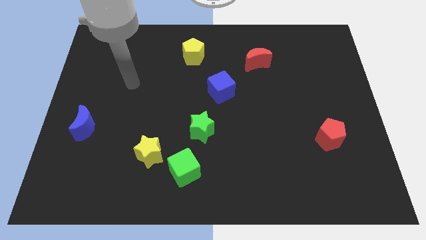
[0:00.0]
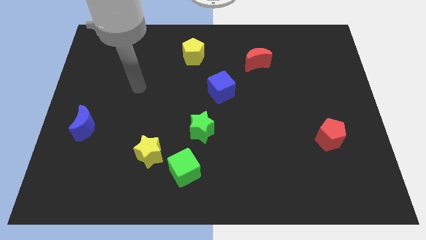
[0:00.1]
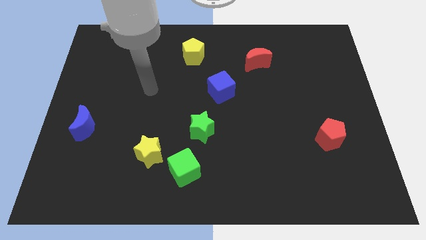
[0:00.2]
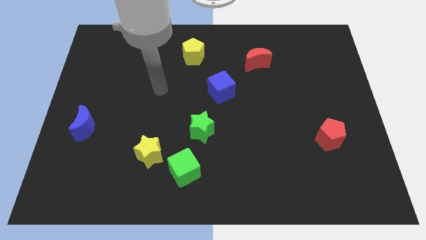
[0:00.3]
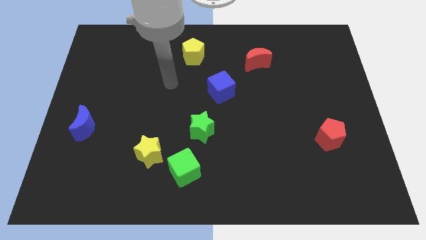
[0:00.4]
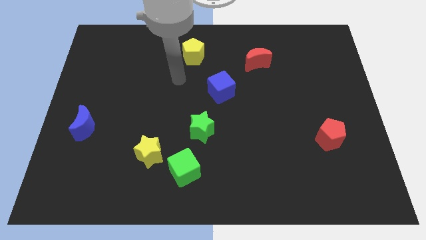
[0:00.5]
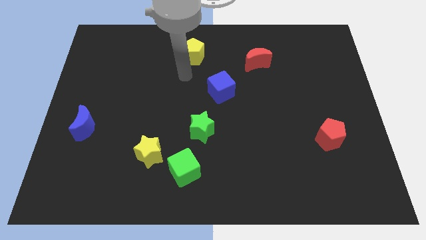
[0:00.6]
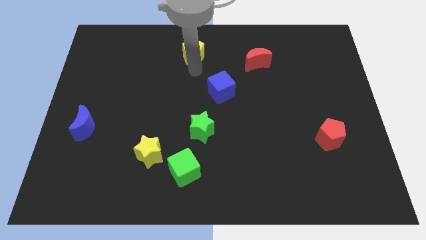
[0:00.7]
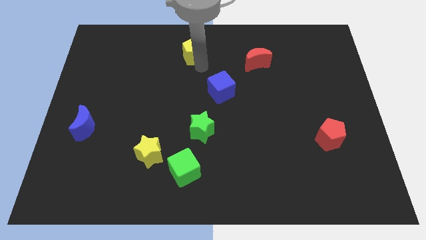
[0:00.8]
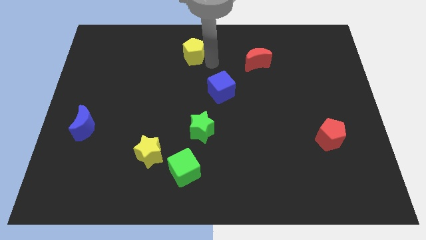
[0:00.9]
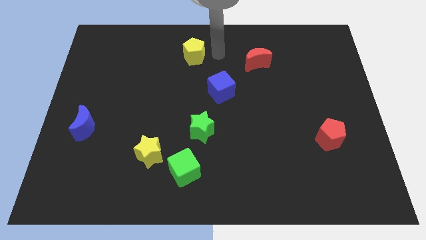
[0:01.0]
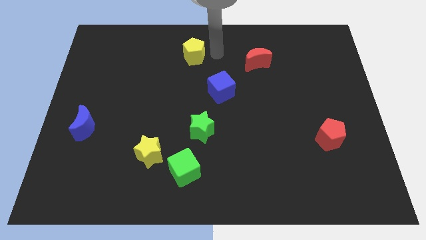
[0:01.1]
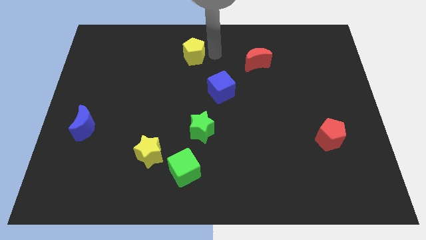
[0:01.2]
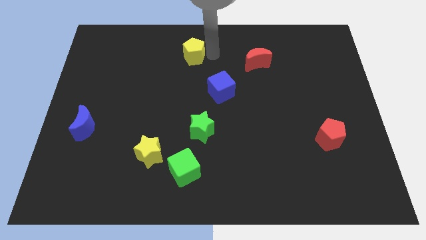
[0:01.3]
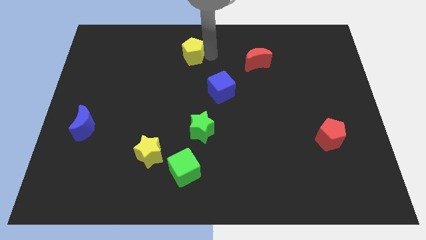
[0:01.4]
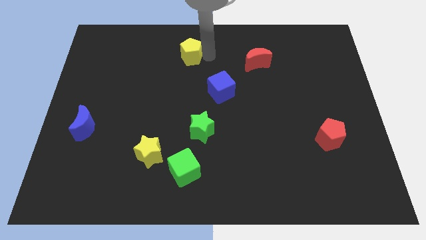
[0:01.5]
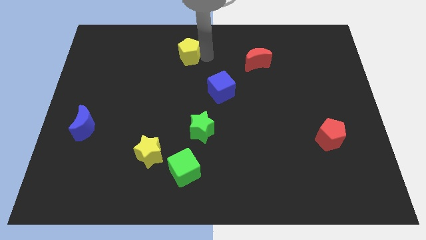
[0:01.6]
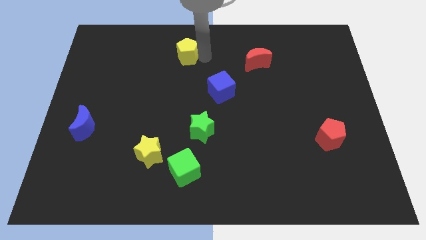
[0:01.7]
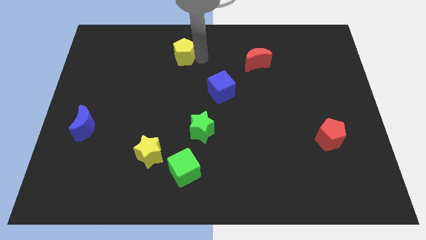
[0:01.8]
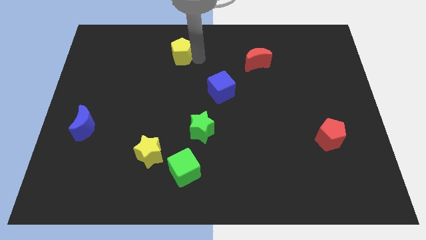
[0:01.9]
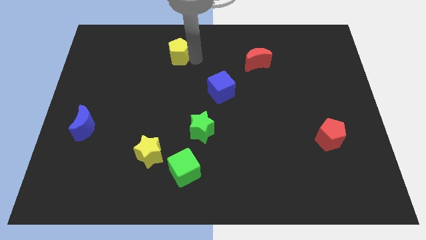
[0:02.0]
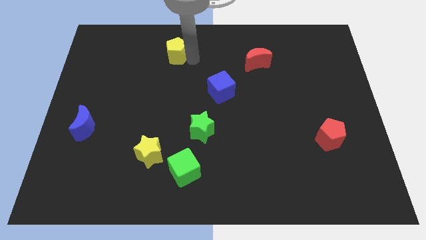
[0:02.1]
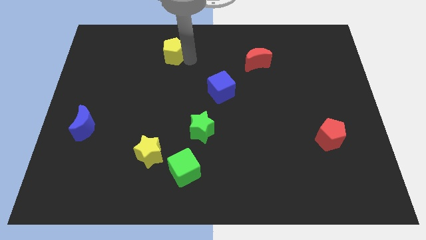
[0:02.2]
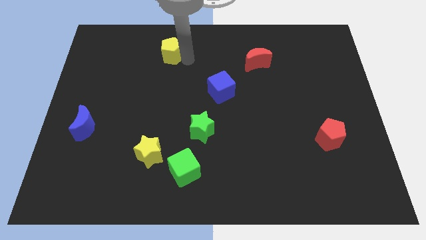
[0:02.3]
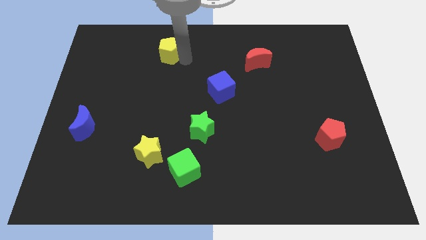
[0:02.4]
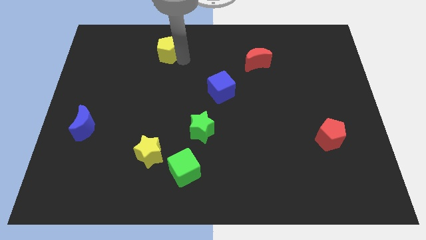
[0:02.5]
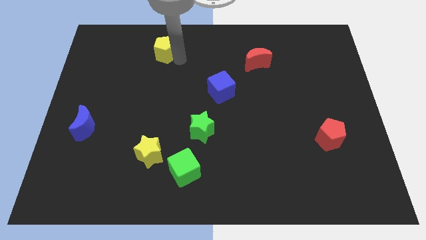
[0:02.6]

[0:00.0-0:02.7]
move the yellow pentagon a little to the left

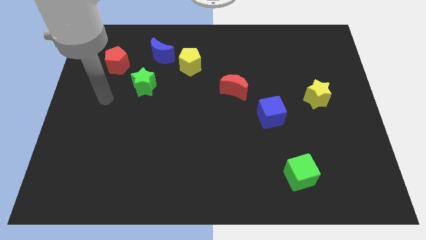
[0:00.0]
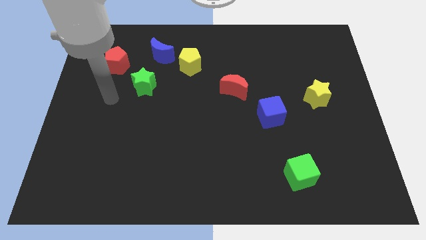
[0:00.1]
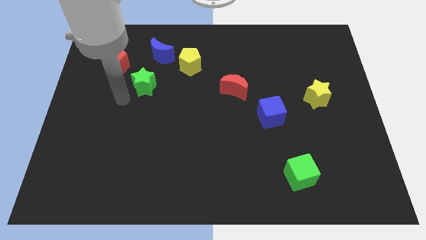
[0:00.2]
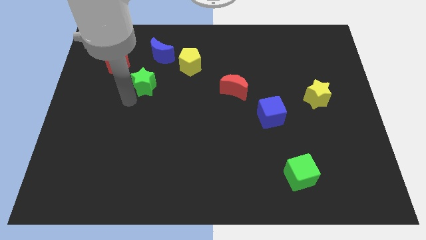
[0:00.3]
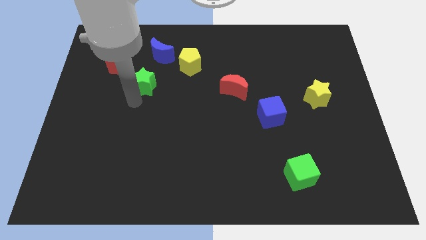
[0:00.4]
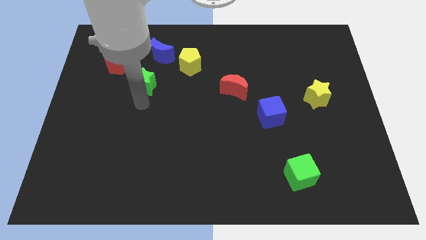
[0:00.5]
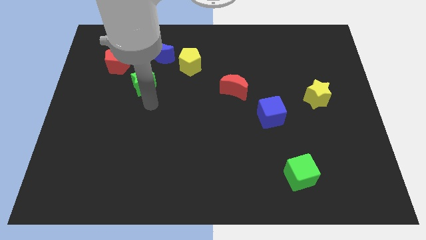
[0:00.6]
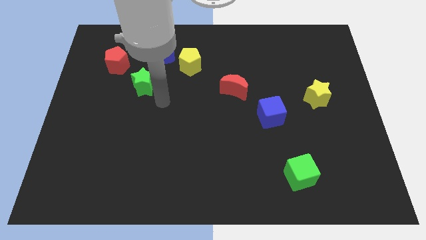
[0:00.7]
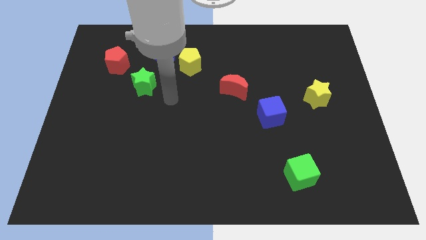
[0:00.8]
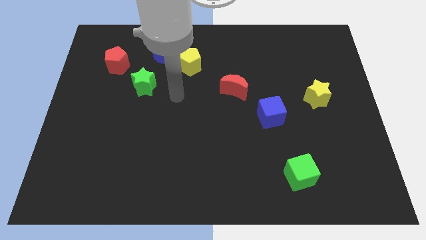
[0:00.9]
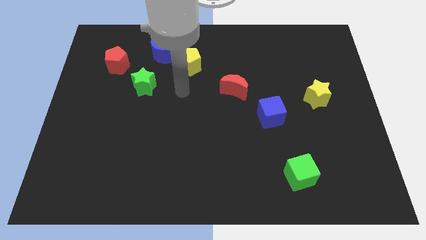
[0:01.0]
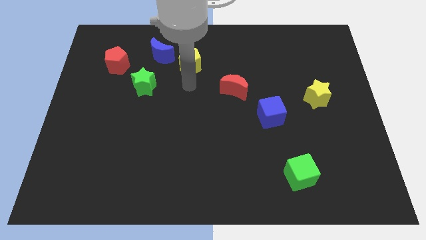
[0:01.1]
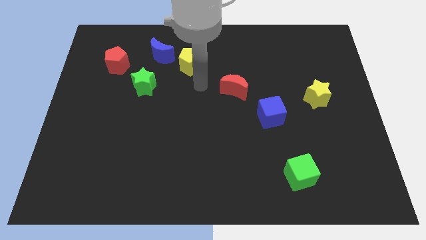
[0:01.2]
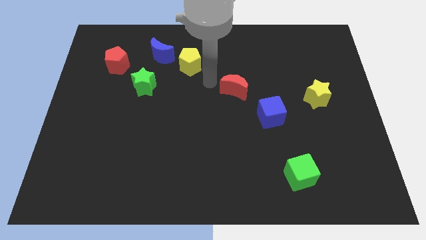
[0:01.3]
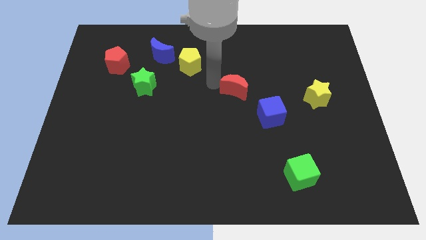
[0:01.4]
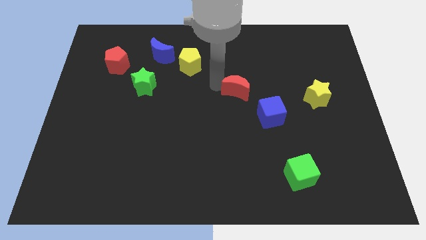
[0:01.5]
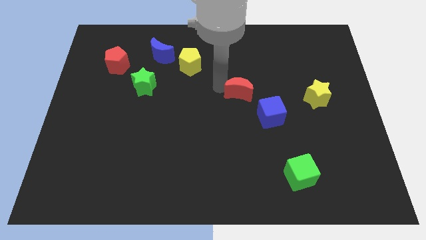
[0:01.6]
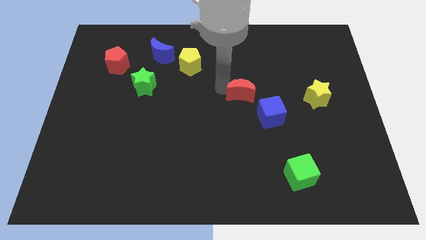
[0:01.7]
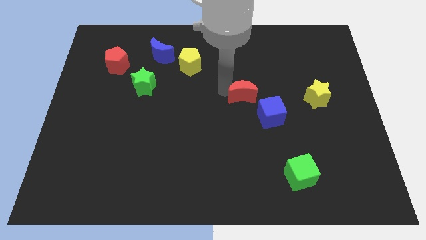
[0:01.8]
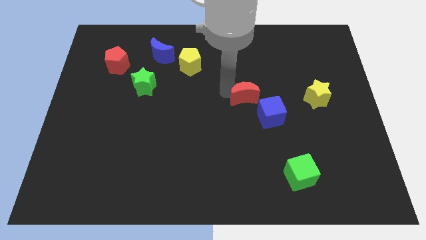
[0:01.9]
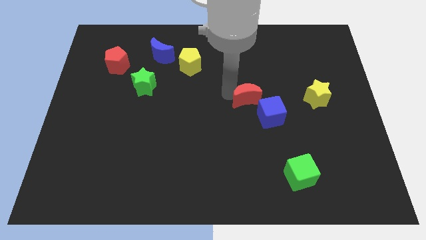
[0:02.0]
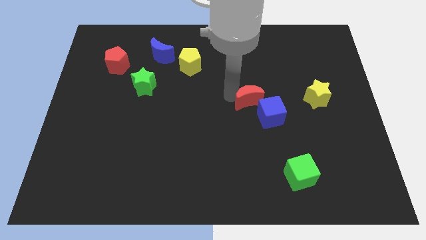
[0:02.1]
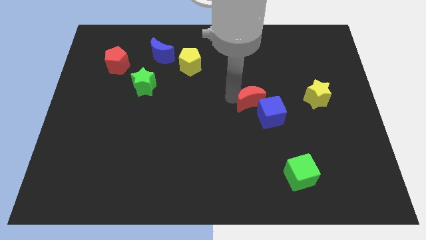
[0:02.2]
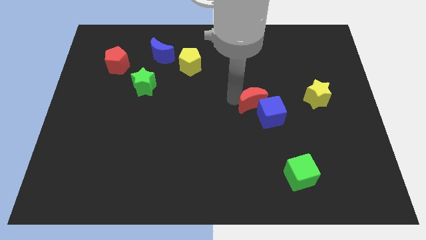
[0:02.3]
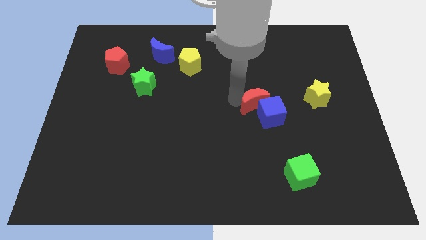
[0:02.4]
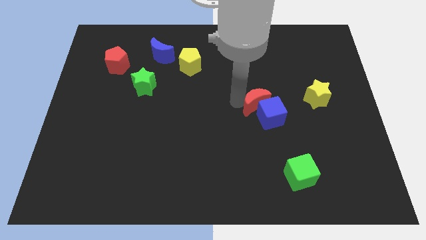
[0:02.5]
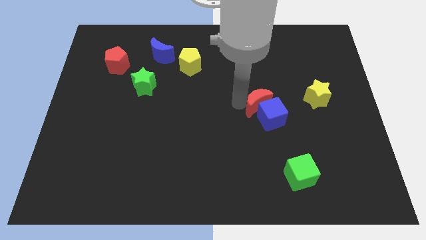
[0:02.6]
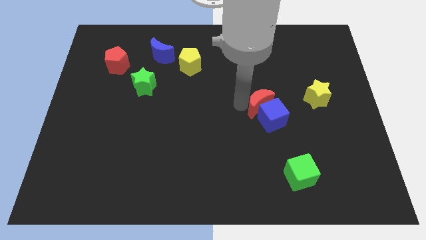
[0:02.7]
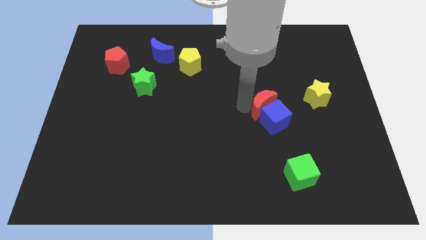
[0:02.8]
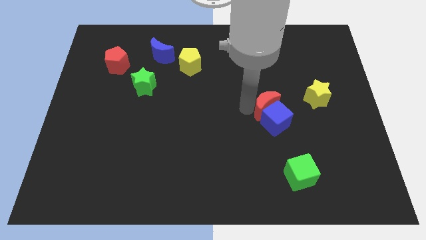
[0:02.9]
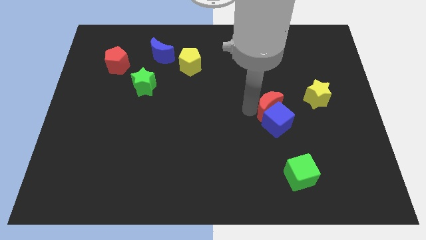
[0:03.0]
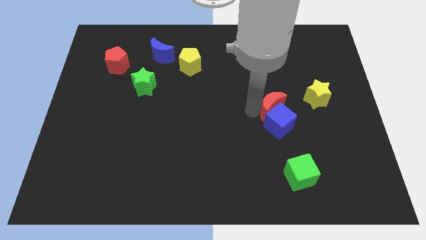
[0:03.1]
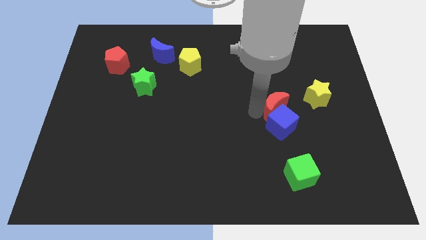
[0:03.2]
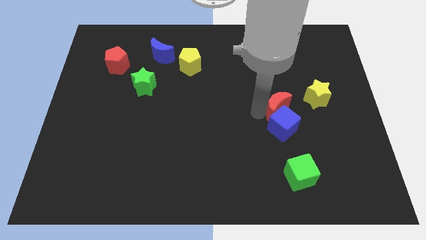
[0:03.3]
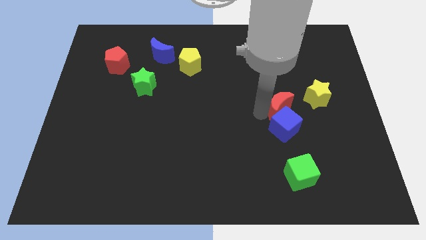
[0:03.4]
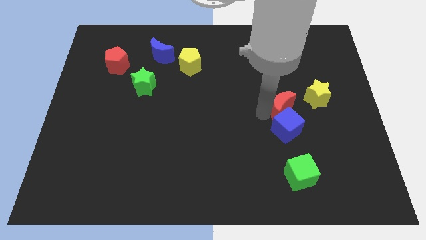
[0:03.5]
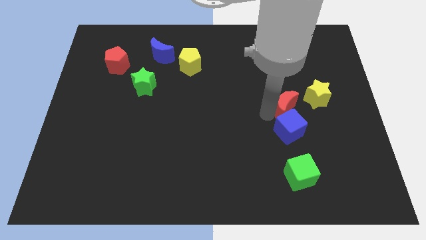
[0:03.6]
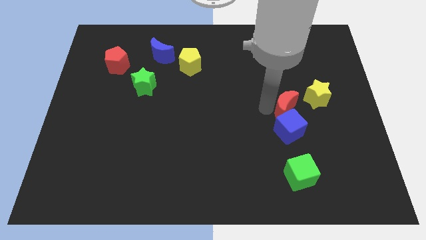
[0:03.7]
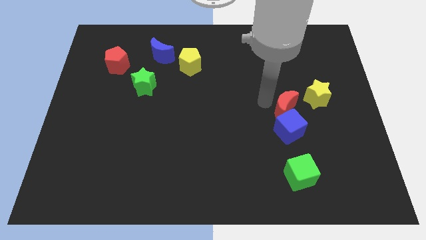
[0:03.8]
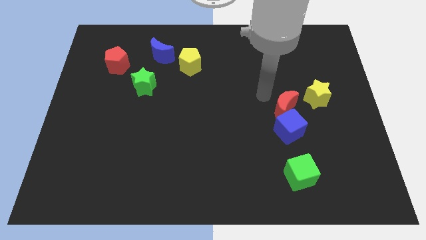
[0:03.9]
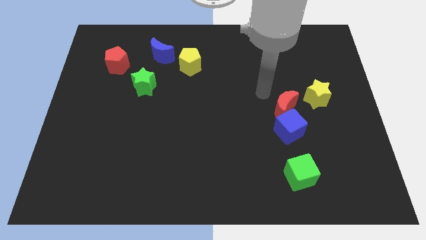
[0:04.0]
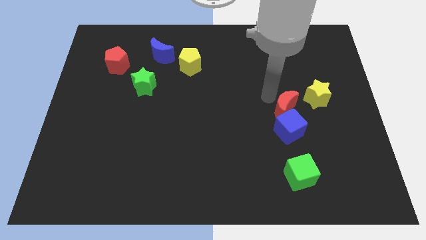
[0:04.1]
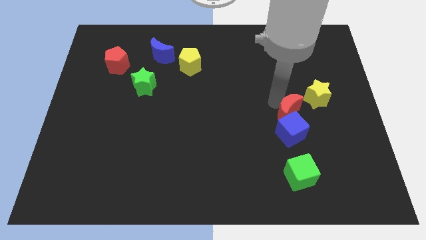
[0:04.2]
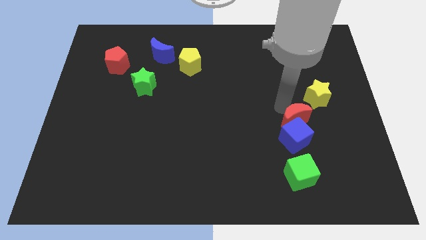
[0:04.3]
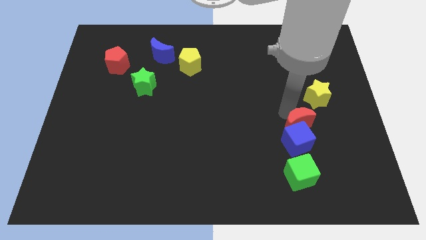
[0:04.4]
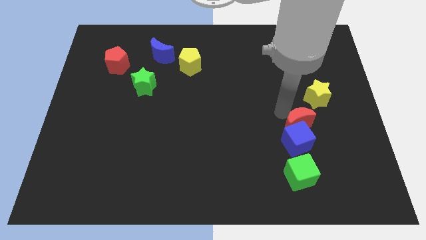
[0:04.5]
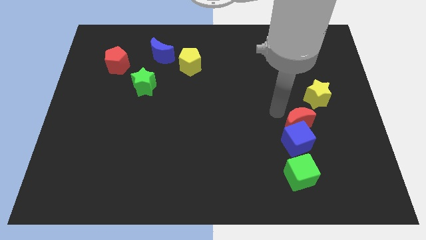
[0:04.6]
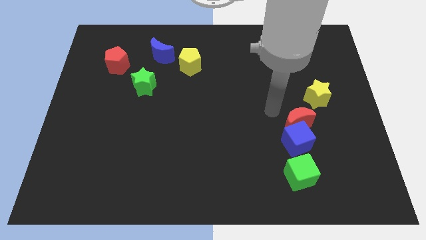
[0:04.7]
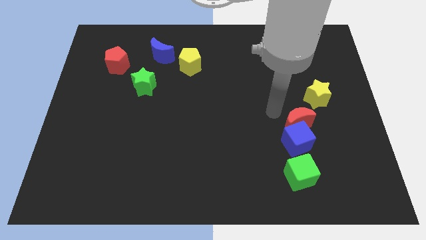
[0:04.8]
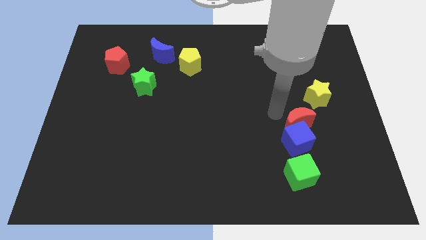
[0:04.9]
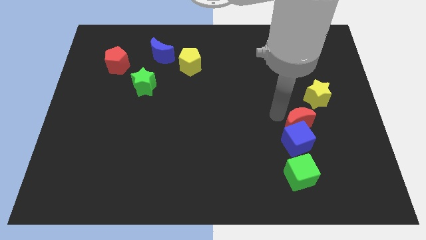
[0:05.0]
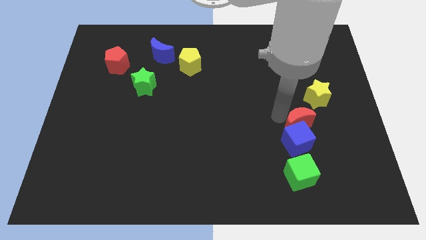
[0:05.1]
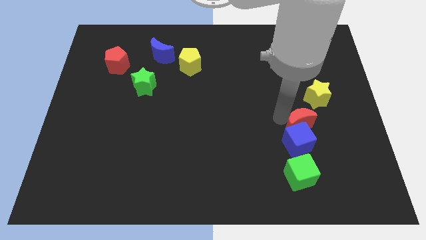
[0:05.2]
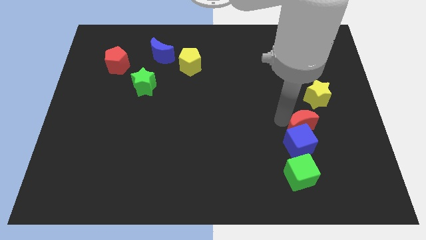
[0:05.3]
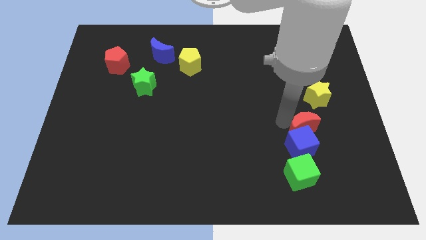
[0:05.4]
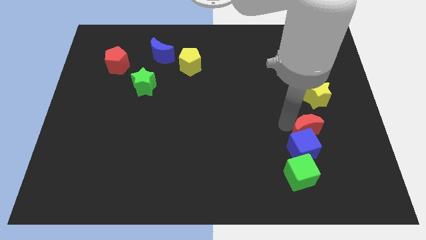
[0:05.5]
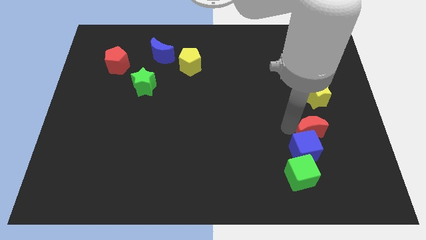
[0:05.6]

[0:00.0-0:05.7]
move the red moon diagonally downwards and right
